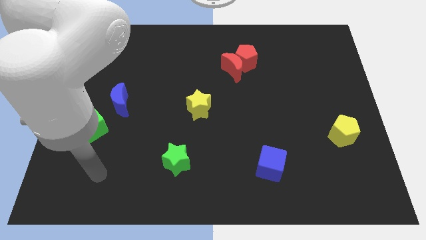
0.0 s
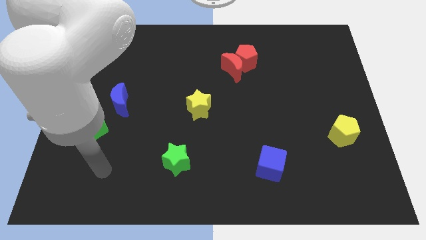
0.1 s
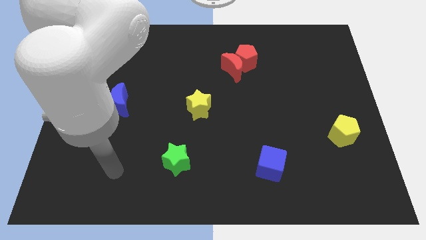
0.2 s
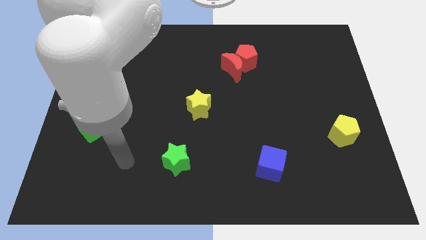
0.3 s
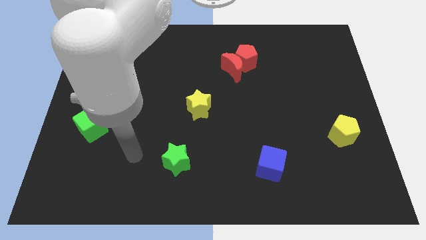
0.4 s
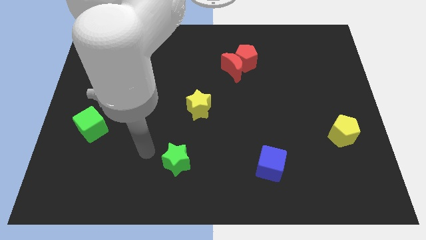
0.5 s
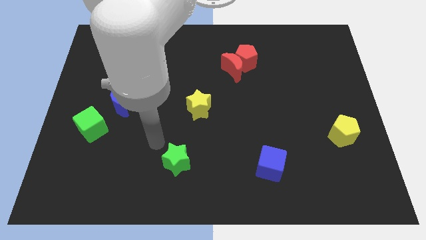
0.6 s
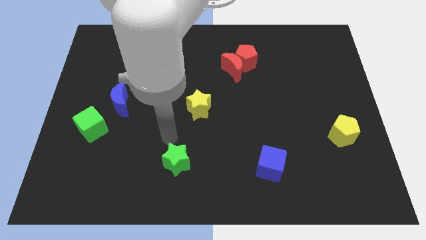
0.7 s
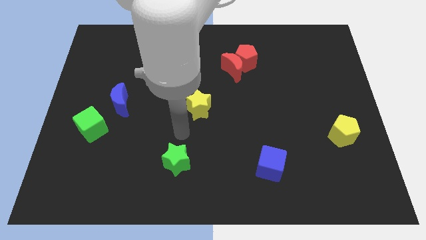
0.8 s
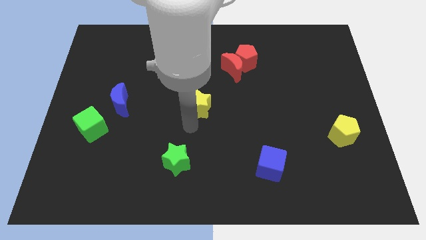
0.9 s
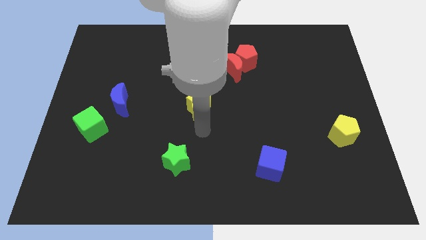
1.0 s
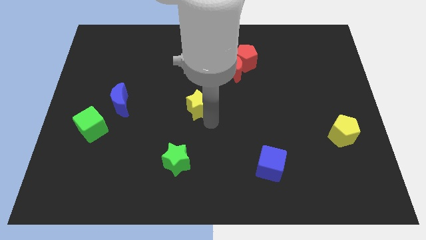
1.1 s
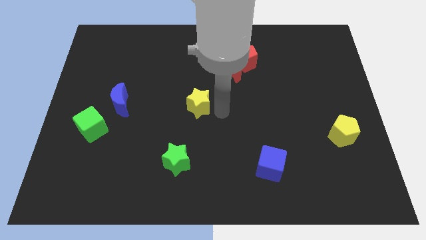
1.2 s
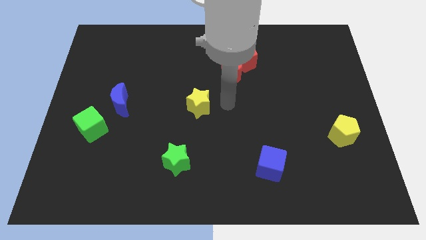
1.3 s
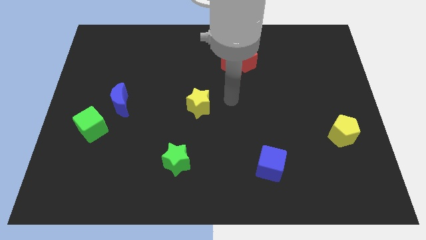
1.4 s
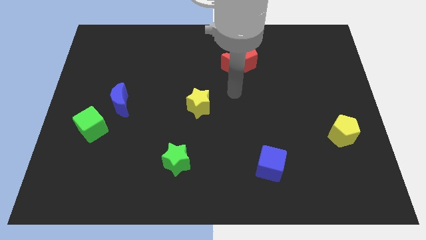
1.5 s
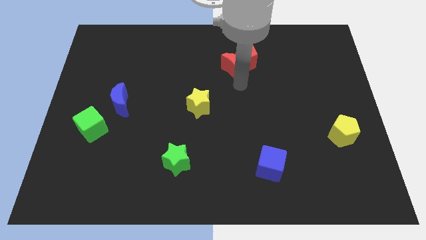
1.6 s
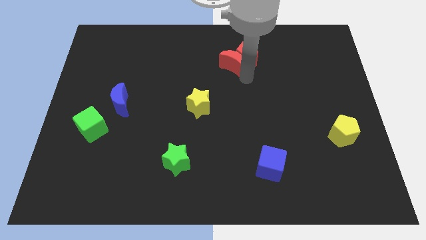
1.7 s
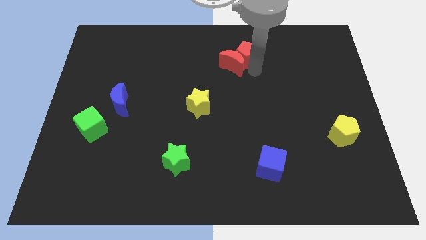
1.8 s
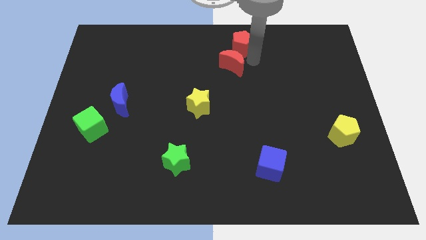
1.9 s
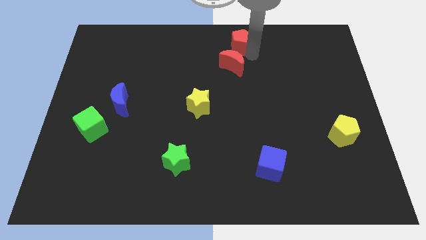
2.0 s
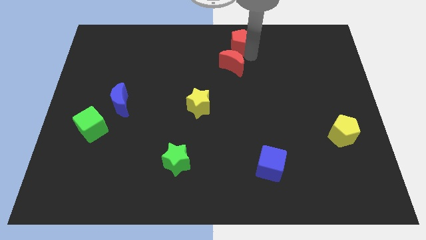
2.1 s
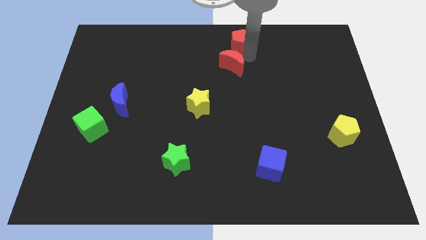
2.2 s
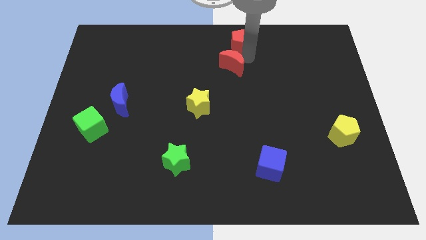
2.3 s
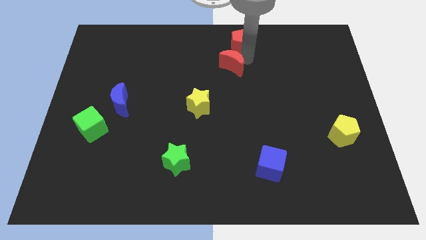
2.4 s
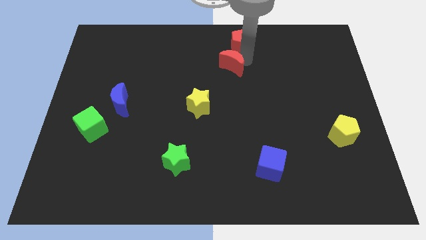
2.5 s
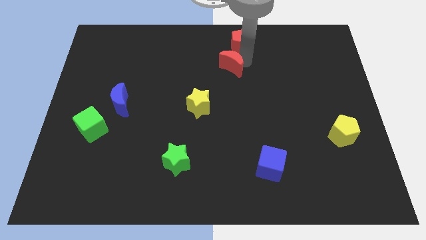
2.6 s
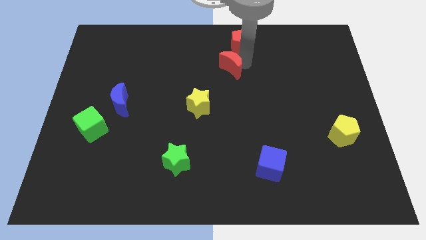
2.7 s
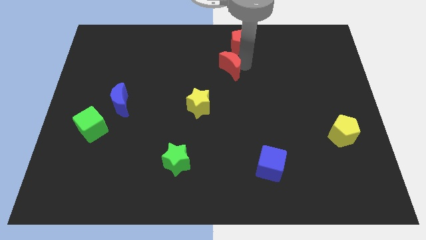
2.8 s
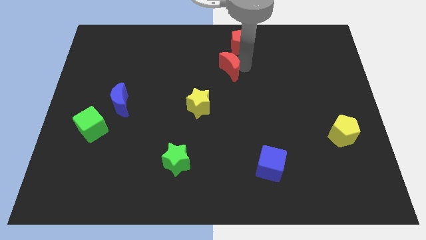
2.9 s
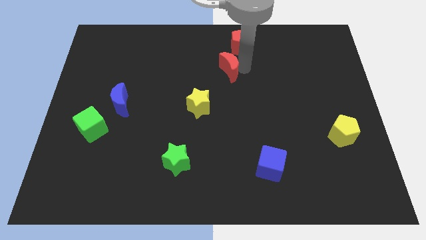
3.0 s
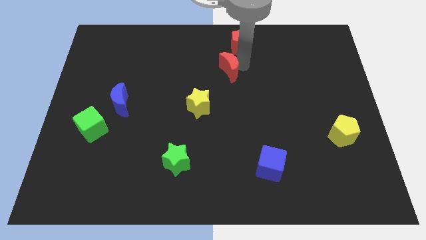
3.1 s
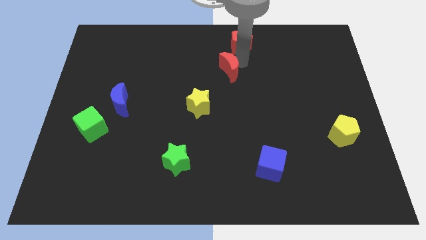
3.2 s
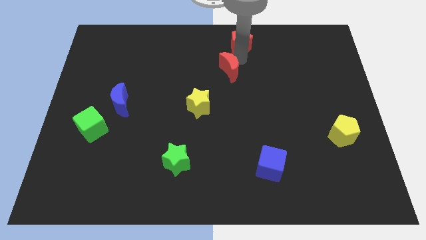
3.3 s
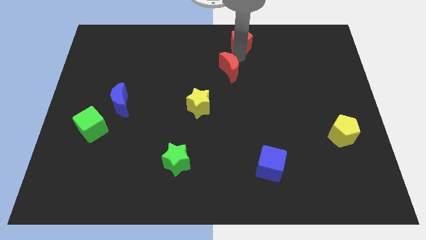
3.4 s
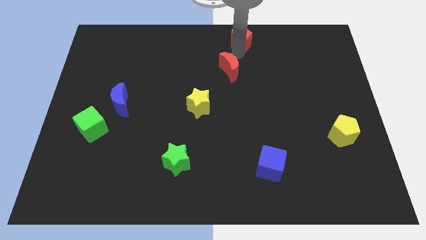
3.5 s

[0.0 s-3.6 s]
separate the red moon from the red pentagon

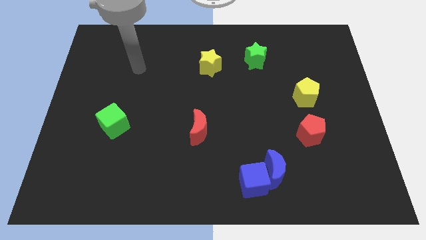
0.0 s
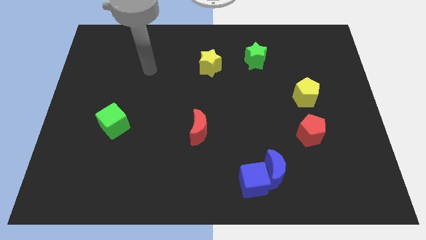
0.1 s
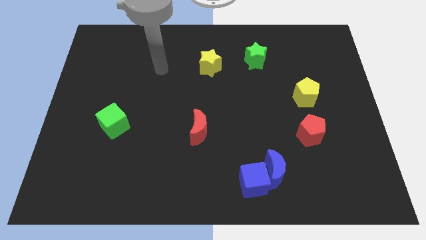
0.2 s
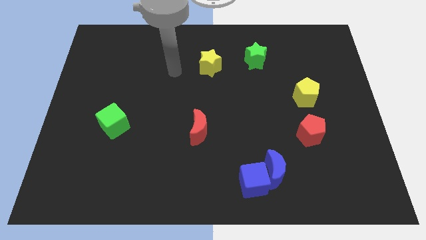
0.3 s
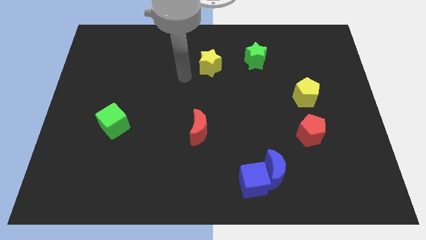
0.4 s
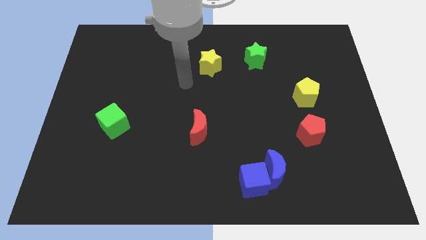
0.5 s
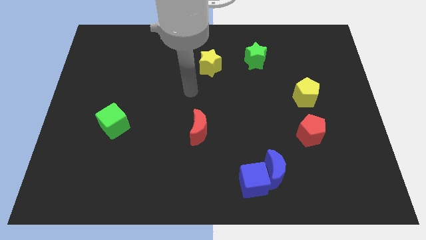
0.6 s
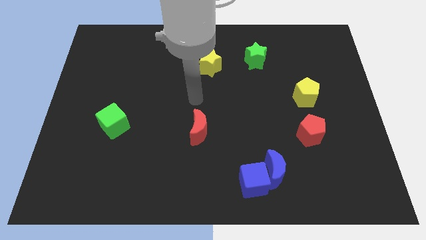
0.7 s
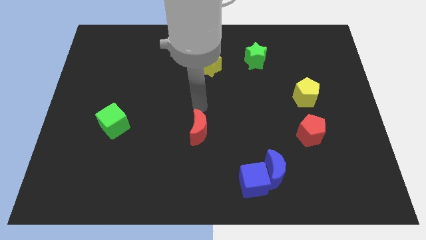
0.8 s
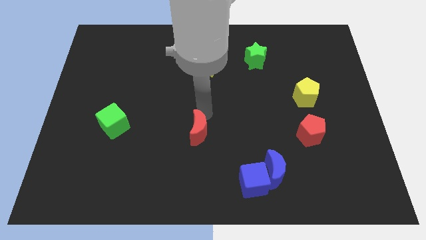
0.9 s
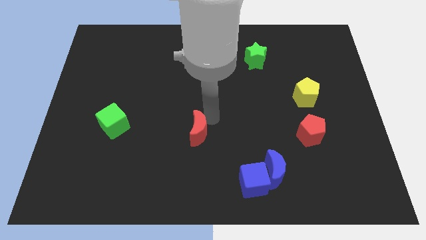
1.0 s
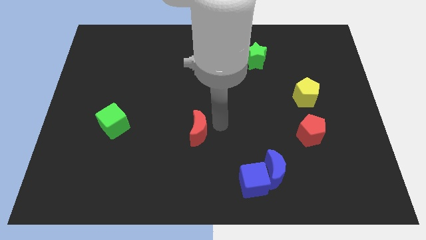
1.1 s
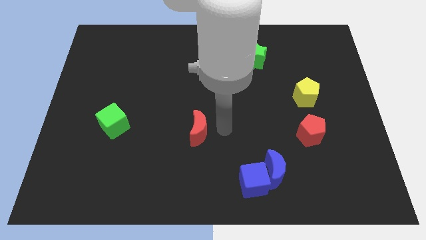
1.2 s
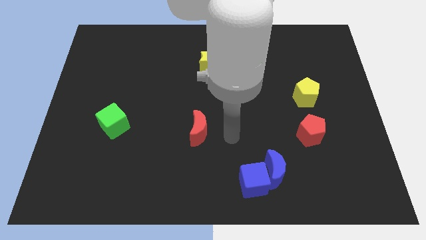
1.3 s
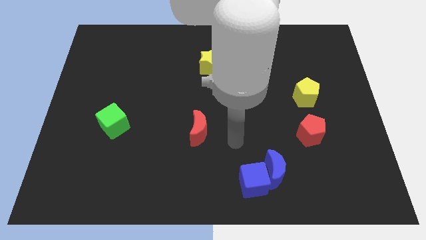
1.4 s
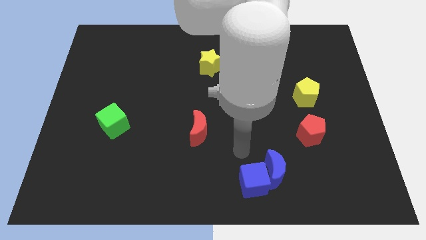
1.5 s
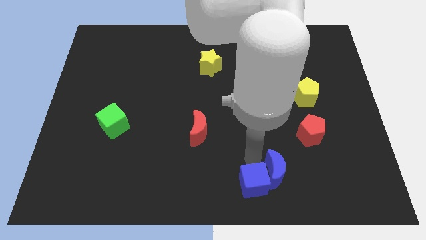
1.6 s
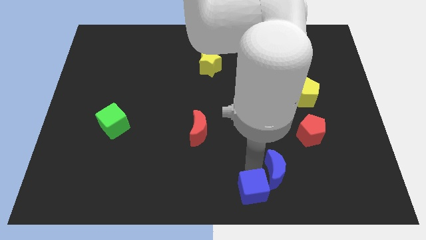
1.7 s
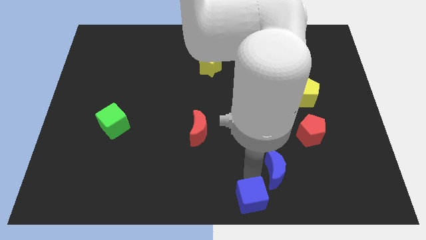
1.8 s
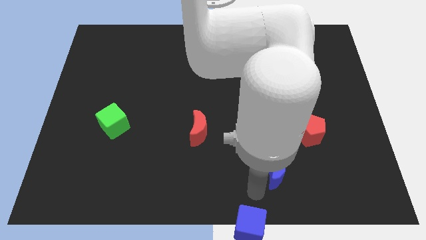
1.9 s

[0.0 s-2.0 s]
move the blue moon away from the blue cube

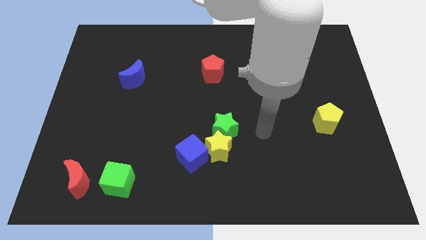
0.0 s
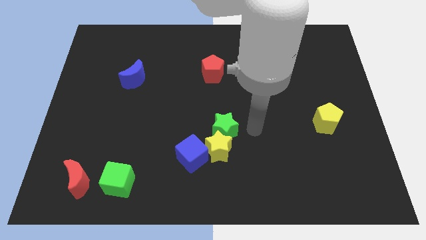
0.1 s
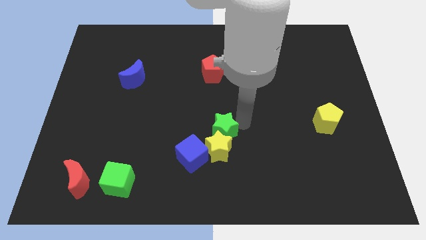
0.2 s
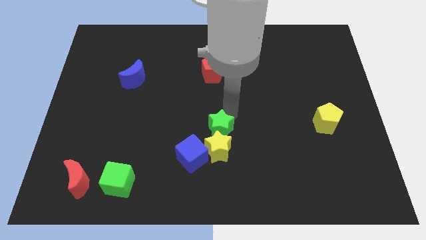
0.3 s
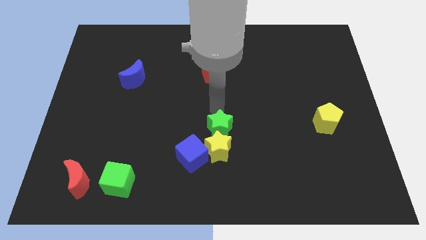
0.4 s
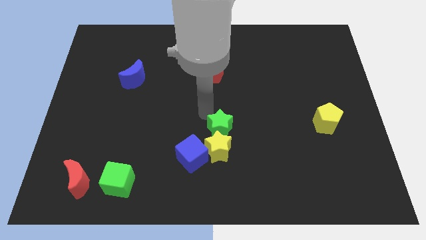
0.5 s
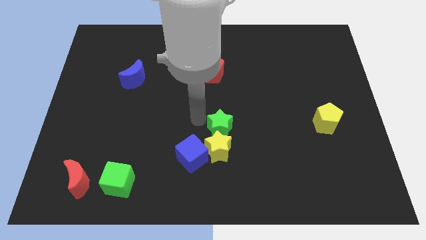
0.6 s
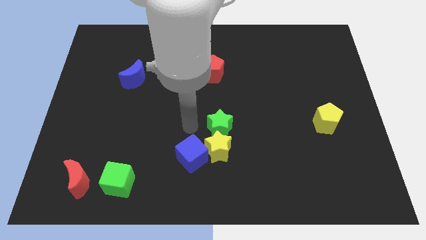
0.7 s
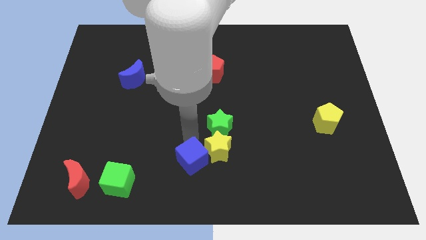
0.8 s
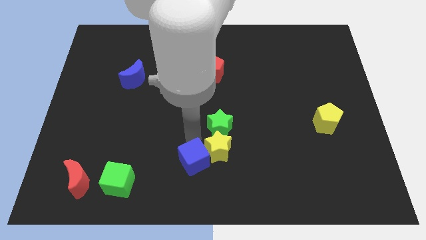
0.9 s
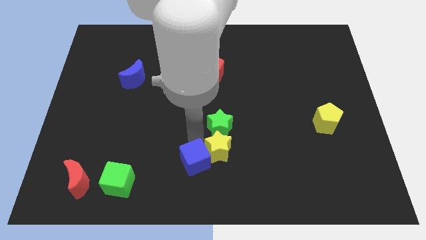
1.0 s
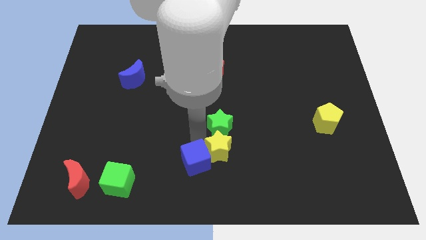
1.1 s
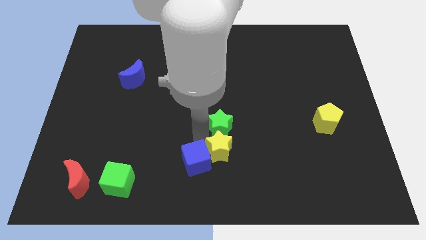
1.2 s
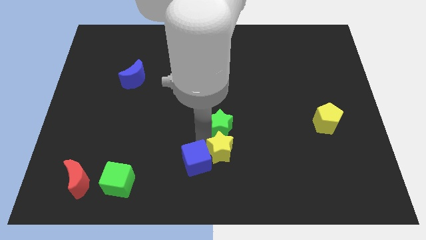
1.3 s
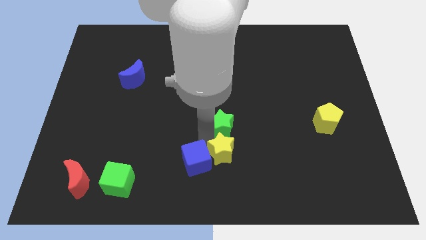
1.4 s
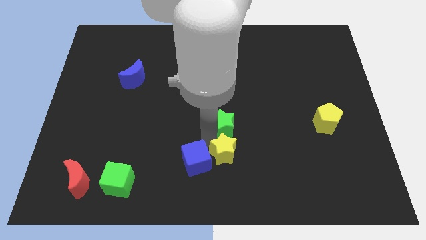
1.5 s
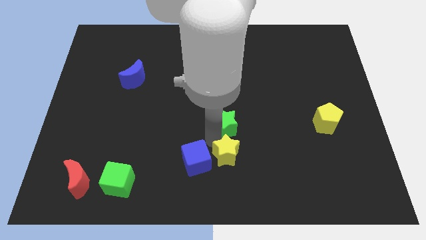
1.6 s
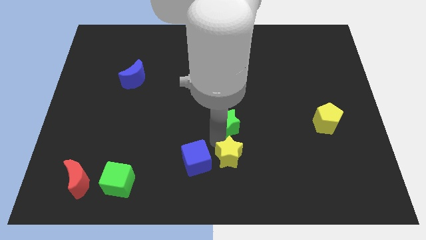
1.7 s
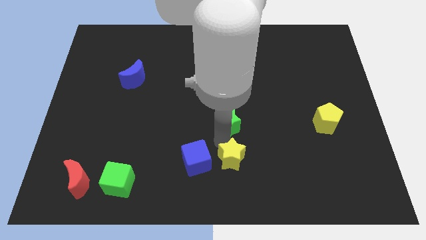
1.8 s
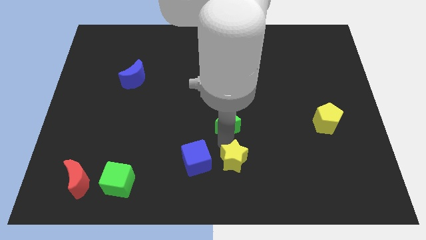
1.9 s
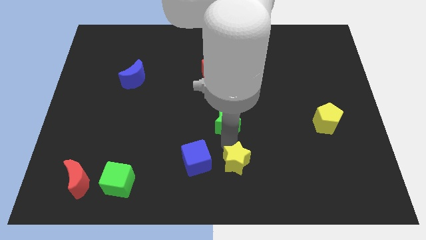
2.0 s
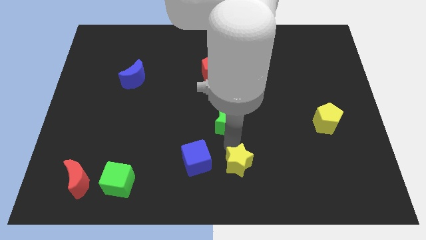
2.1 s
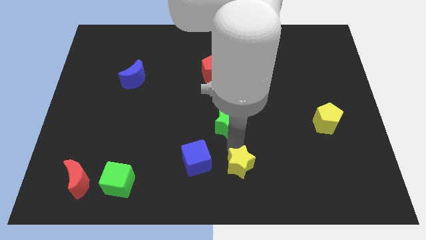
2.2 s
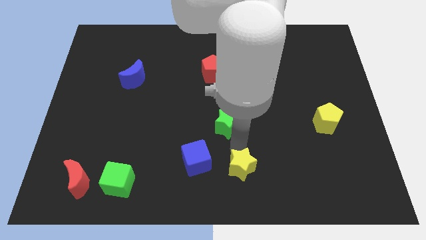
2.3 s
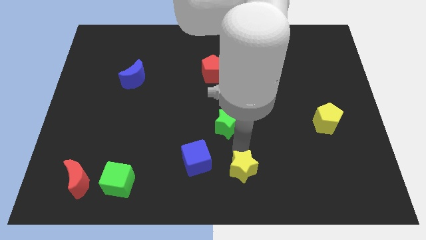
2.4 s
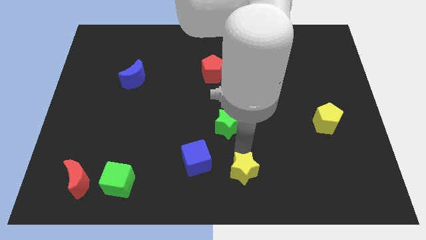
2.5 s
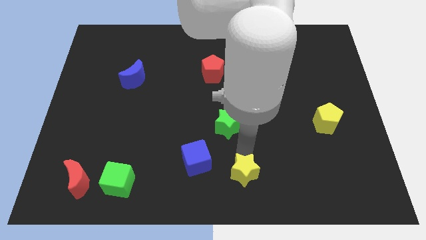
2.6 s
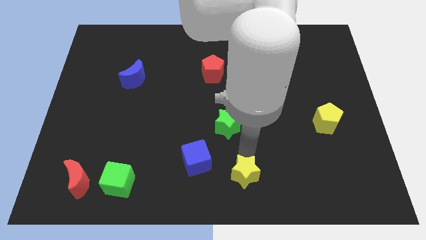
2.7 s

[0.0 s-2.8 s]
pull the yellow star apart from the green star and blue cube

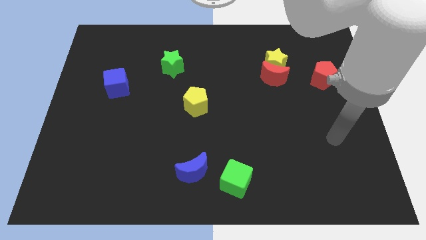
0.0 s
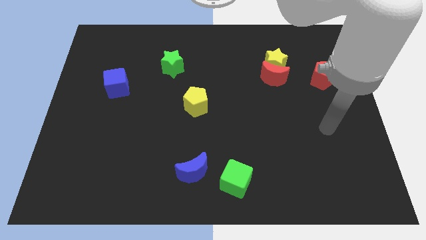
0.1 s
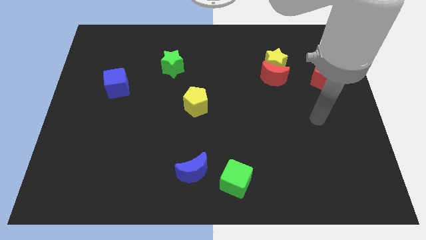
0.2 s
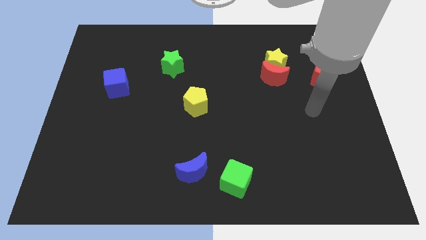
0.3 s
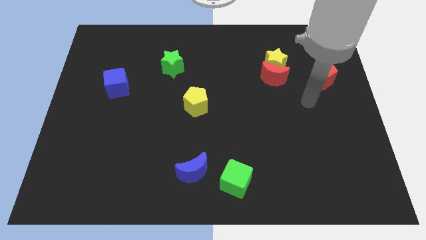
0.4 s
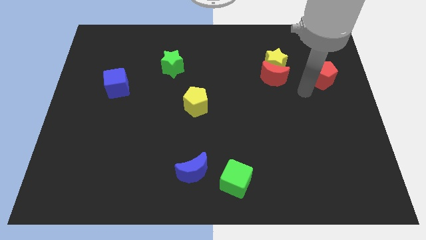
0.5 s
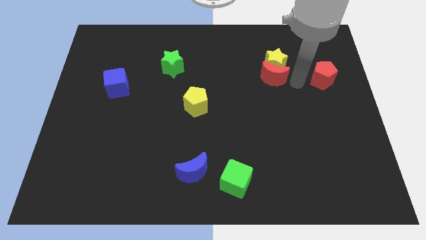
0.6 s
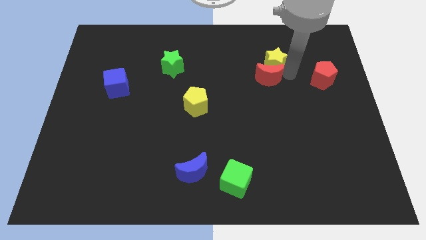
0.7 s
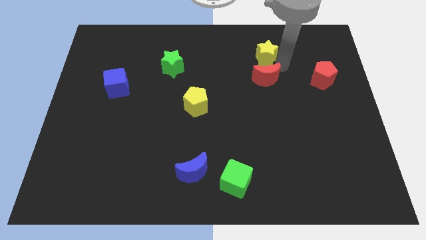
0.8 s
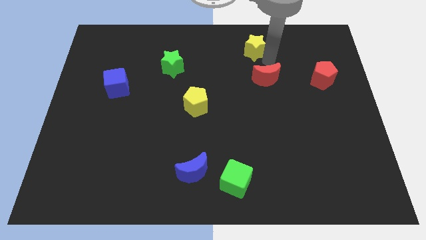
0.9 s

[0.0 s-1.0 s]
pull the red moon apart from the yellow star

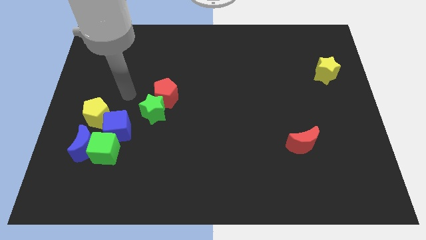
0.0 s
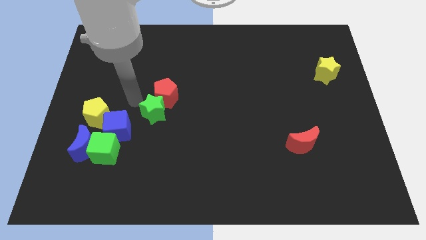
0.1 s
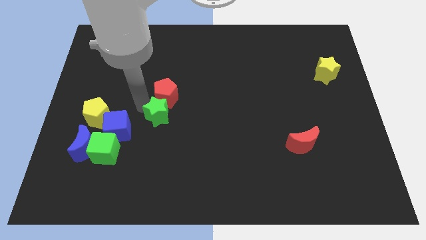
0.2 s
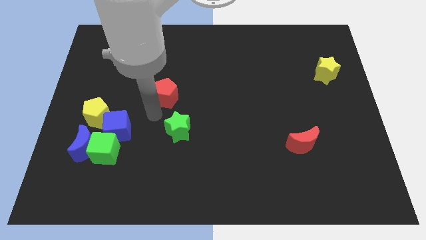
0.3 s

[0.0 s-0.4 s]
move the red pentagon away from the green star
